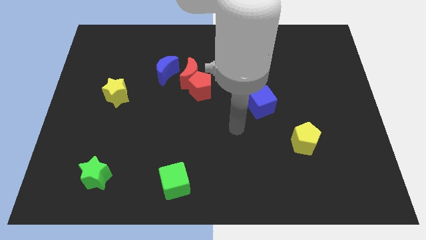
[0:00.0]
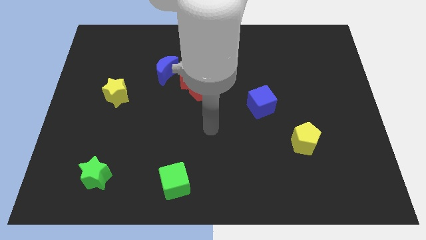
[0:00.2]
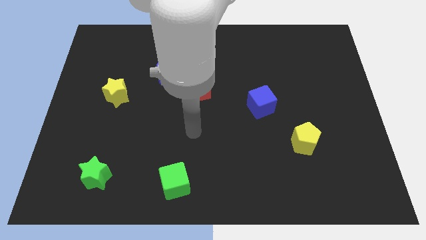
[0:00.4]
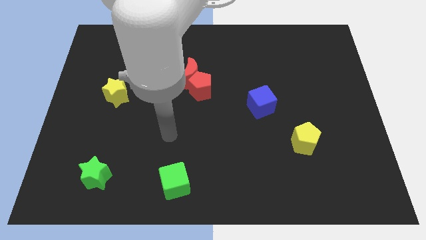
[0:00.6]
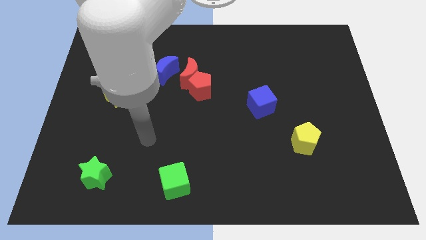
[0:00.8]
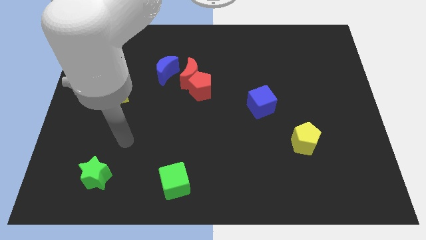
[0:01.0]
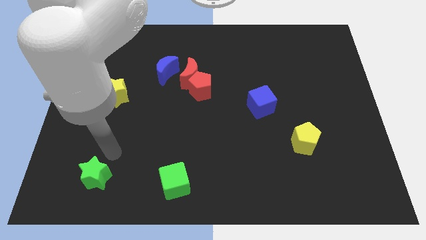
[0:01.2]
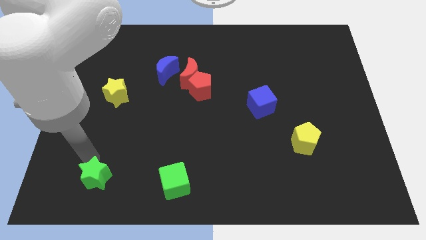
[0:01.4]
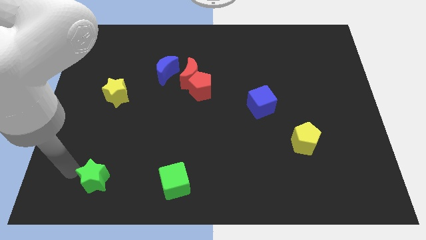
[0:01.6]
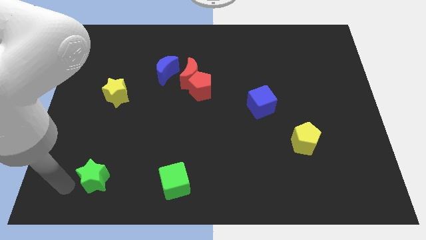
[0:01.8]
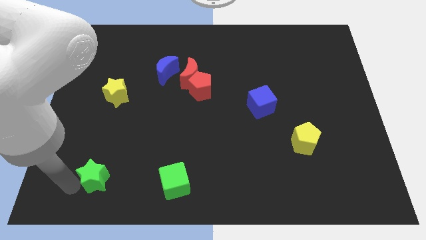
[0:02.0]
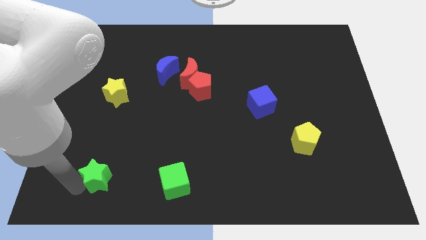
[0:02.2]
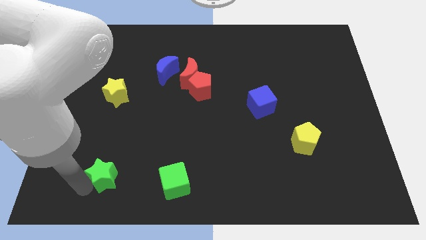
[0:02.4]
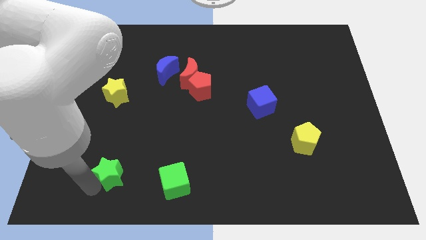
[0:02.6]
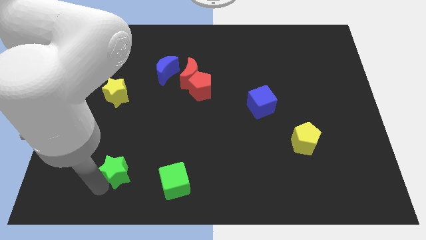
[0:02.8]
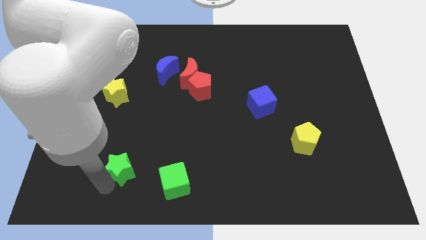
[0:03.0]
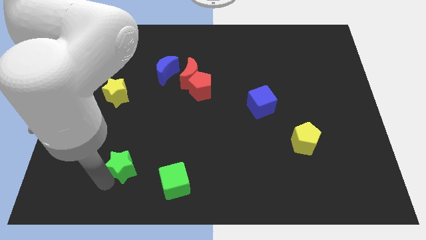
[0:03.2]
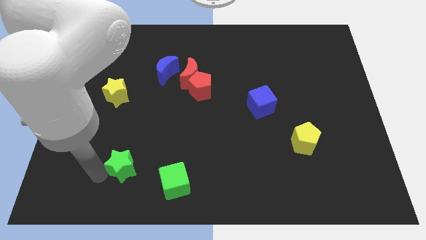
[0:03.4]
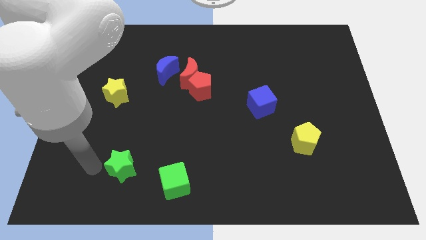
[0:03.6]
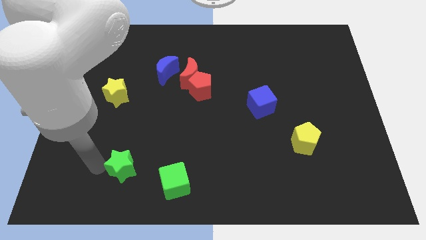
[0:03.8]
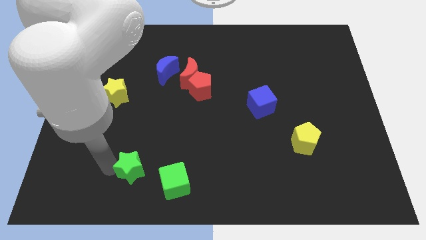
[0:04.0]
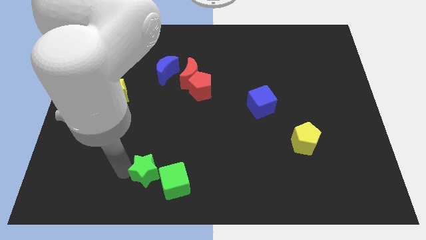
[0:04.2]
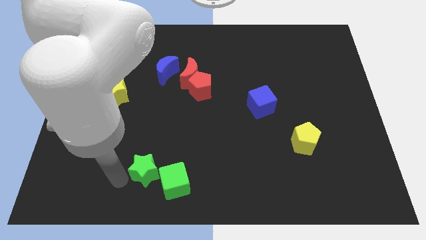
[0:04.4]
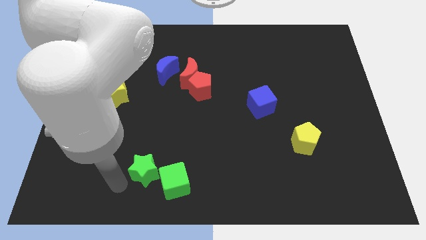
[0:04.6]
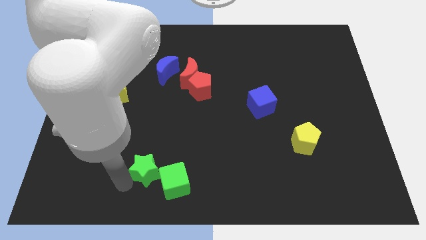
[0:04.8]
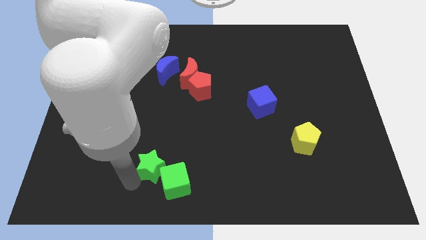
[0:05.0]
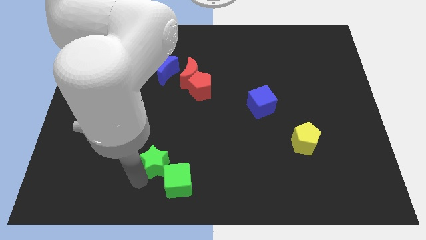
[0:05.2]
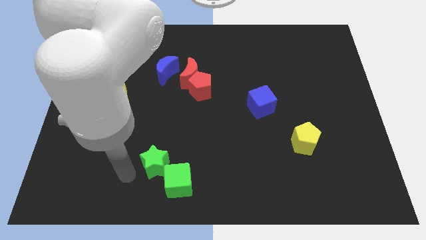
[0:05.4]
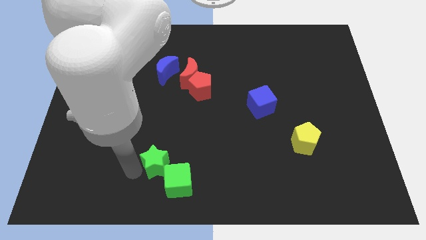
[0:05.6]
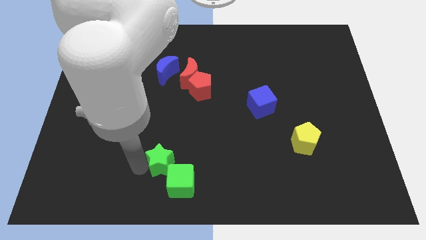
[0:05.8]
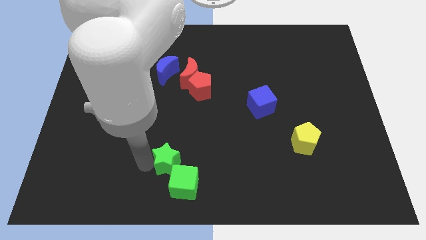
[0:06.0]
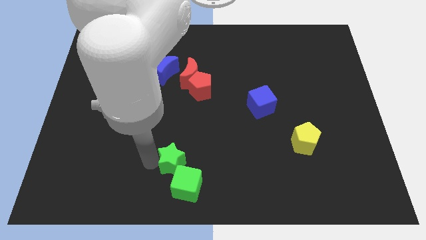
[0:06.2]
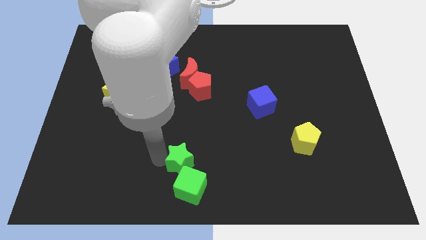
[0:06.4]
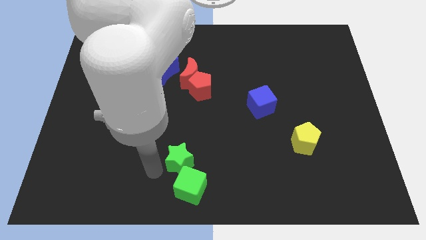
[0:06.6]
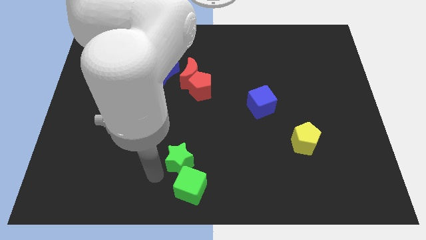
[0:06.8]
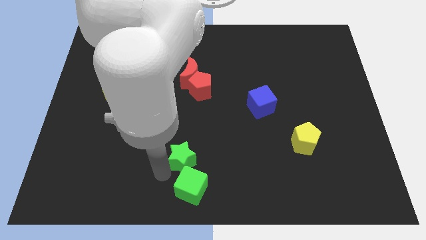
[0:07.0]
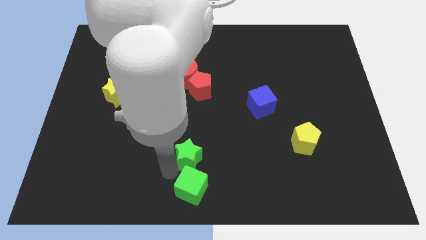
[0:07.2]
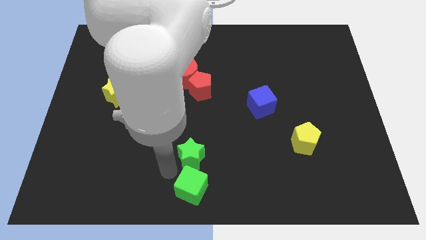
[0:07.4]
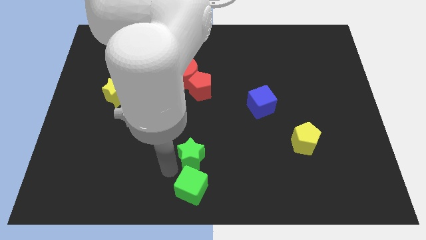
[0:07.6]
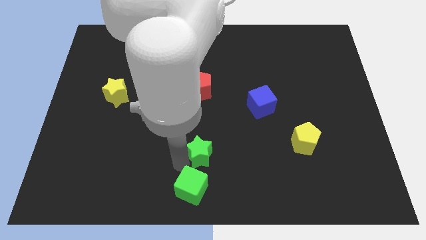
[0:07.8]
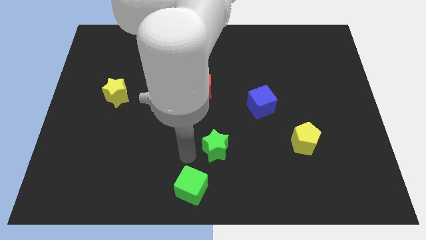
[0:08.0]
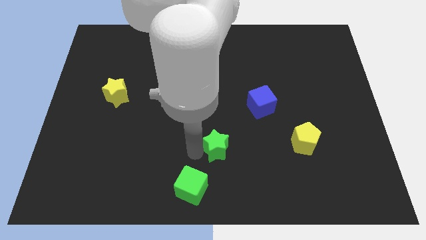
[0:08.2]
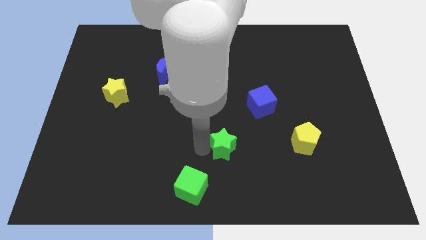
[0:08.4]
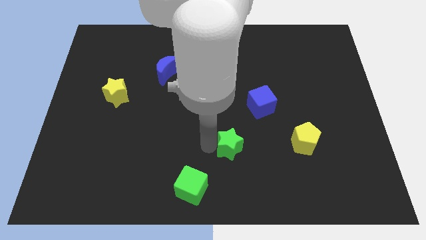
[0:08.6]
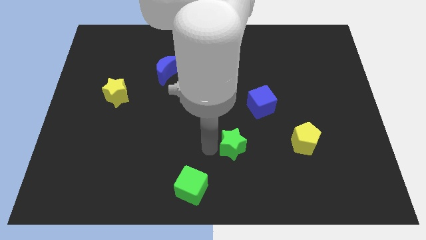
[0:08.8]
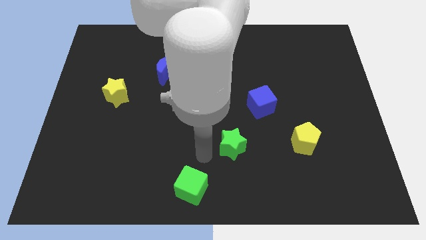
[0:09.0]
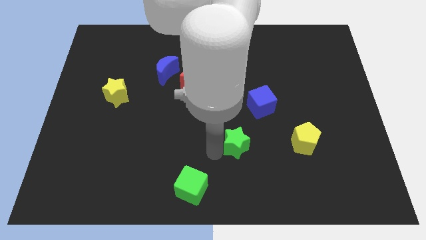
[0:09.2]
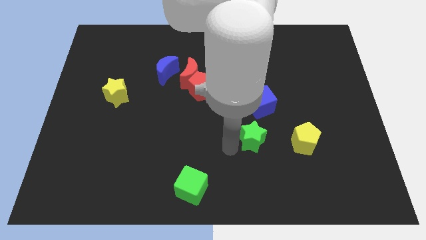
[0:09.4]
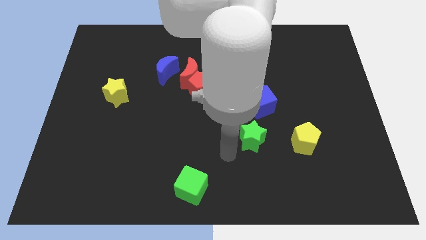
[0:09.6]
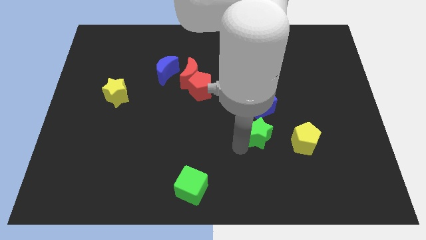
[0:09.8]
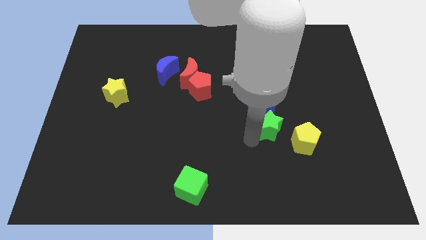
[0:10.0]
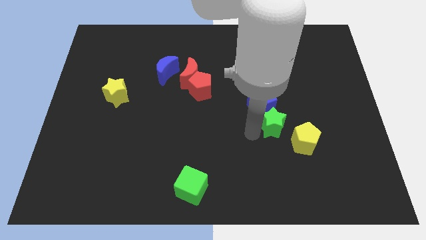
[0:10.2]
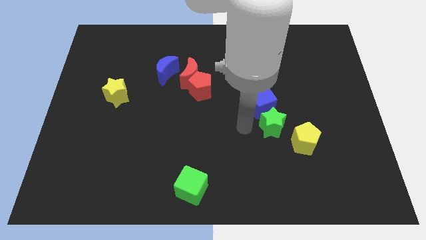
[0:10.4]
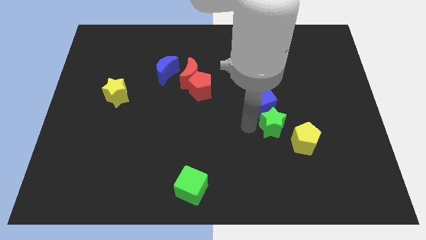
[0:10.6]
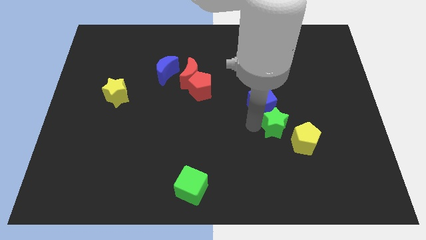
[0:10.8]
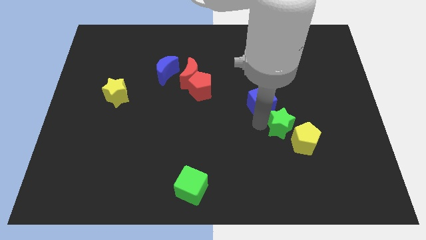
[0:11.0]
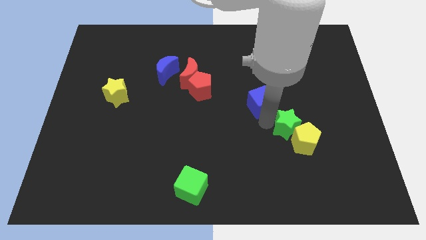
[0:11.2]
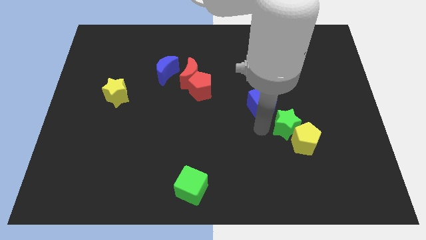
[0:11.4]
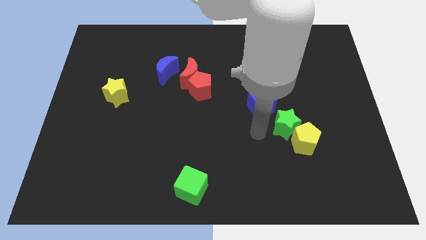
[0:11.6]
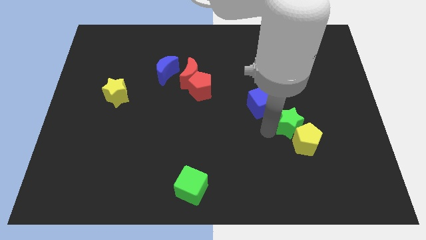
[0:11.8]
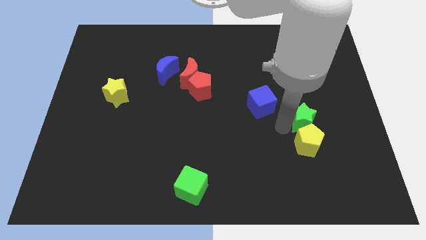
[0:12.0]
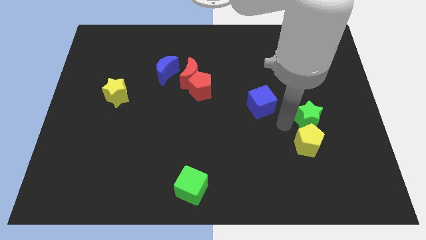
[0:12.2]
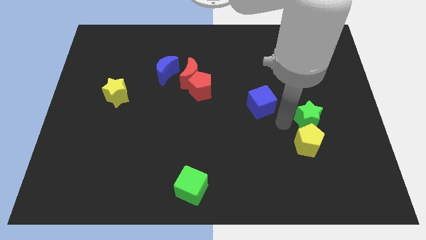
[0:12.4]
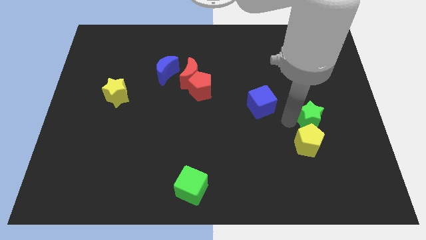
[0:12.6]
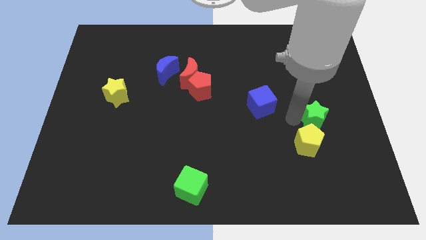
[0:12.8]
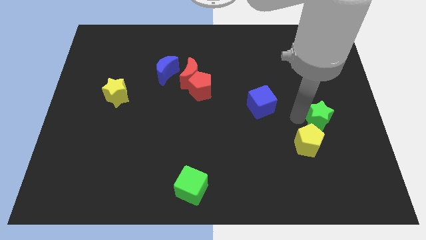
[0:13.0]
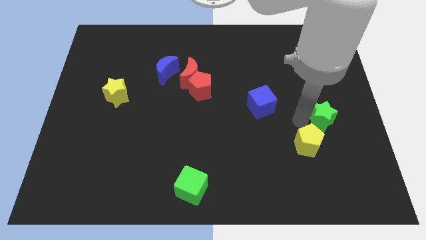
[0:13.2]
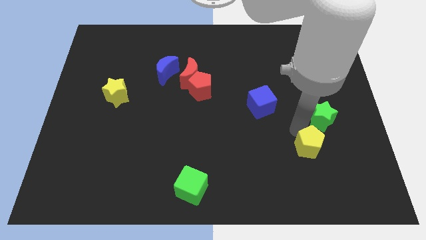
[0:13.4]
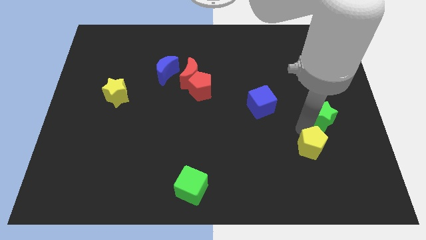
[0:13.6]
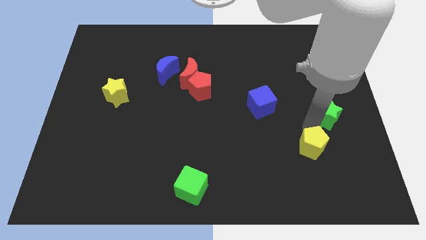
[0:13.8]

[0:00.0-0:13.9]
push the green star to the center right
